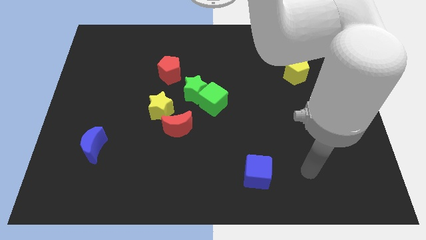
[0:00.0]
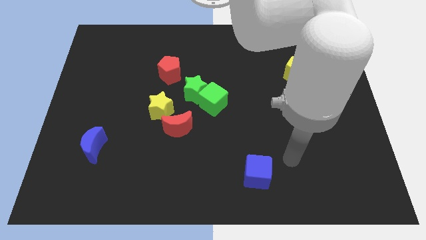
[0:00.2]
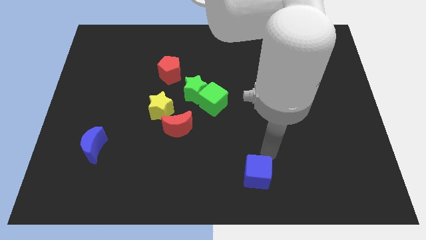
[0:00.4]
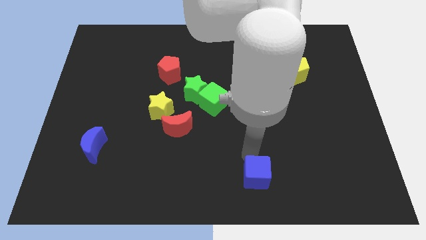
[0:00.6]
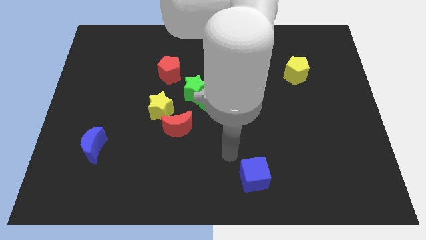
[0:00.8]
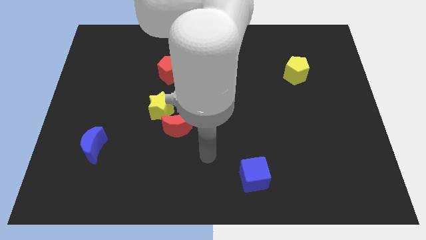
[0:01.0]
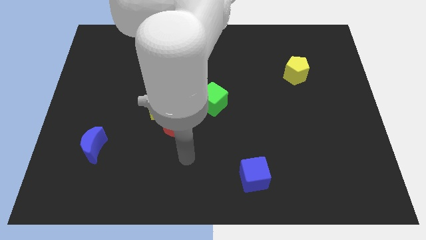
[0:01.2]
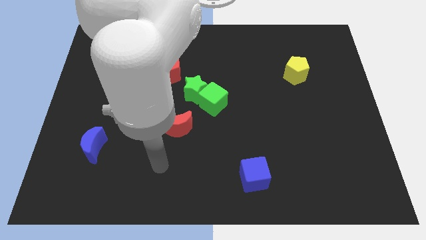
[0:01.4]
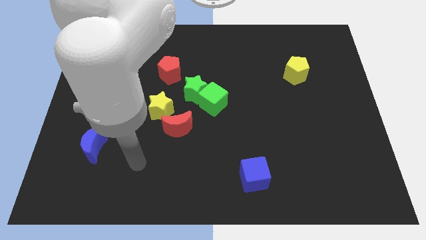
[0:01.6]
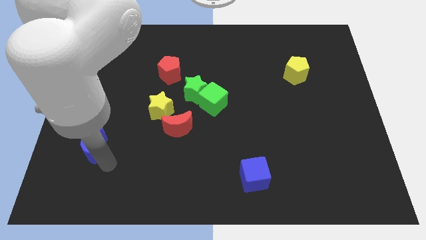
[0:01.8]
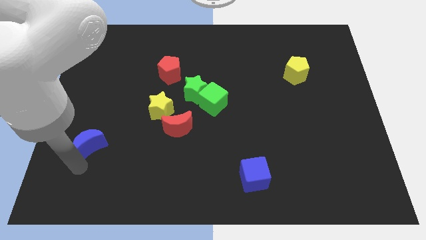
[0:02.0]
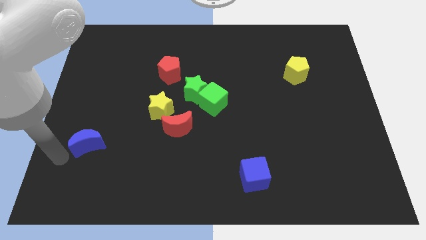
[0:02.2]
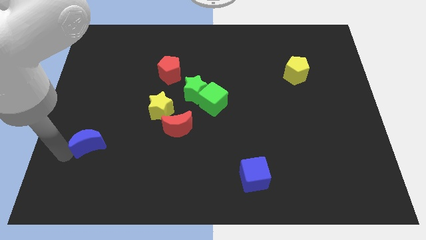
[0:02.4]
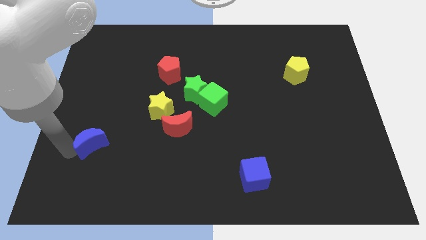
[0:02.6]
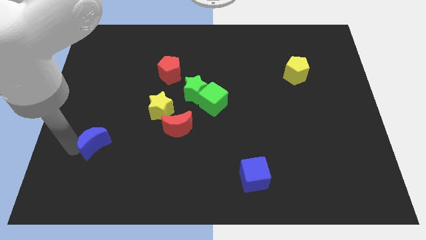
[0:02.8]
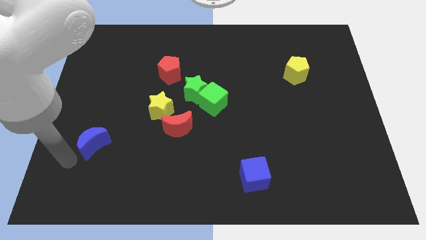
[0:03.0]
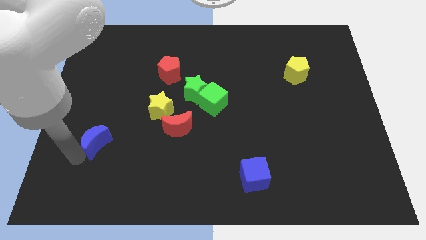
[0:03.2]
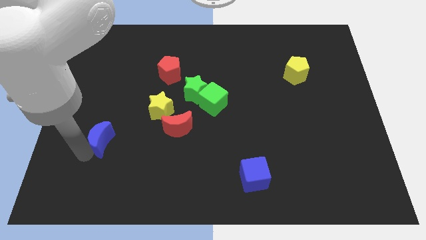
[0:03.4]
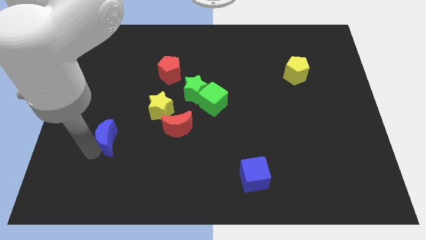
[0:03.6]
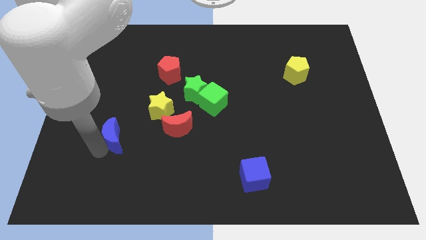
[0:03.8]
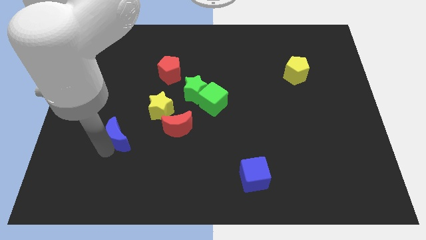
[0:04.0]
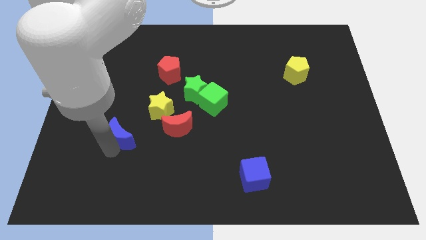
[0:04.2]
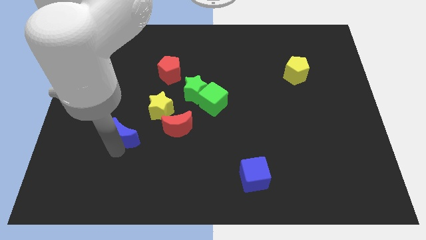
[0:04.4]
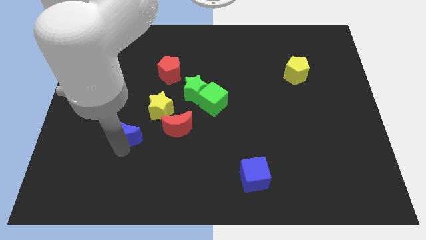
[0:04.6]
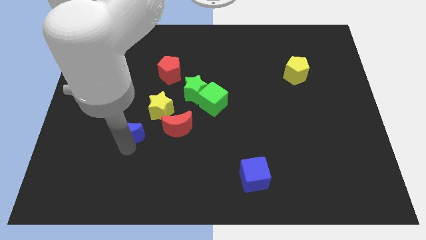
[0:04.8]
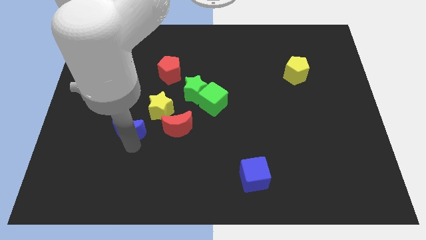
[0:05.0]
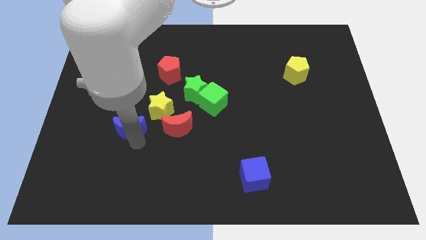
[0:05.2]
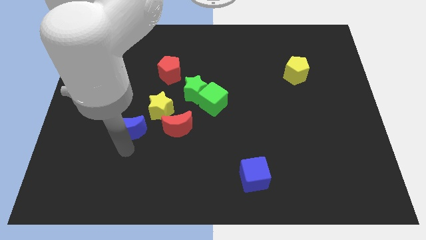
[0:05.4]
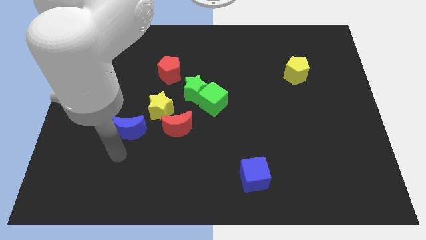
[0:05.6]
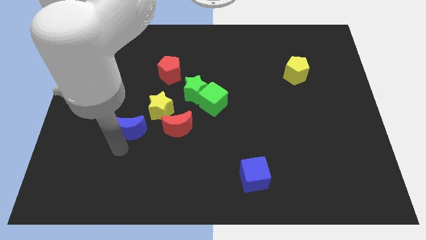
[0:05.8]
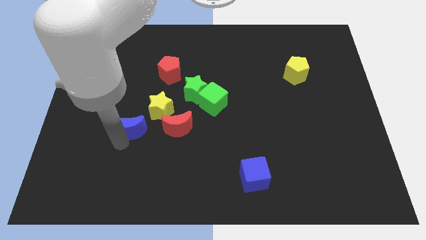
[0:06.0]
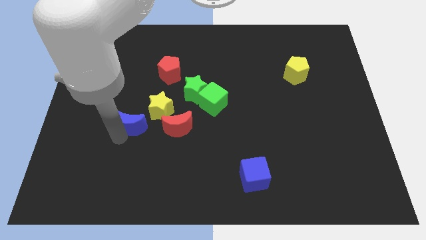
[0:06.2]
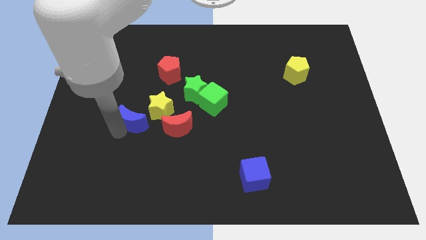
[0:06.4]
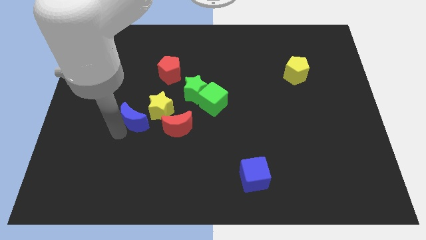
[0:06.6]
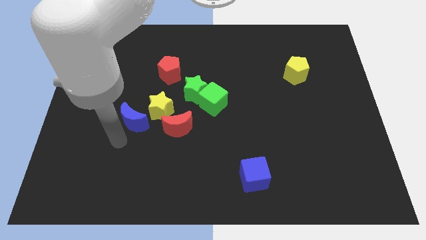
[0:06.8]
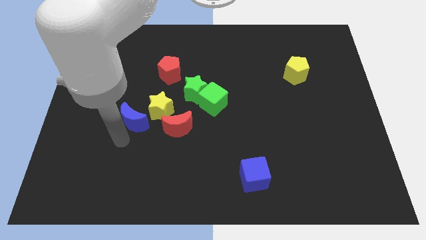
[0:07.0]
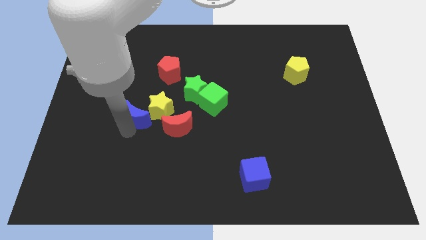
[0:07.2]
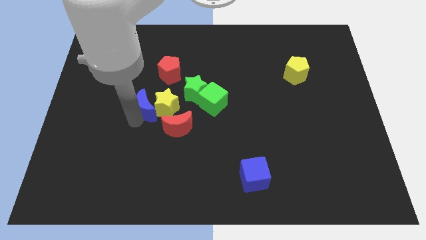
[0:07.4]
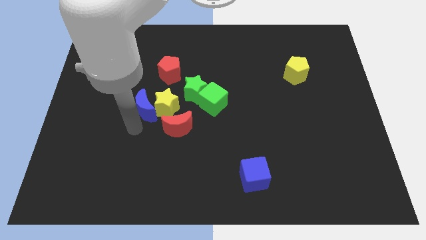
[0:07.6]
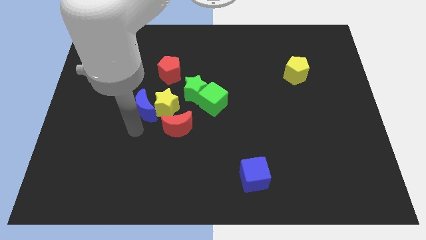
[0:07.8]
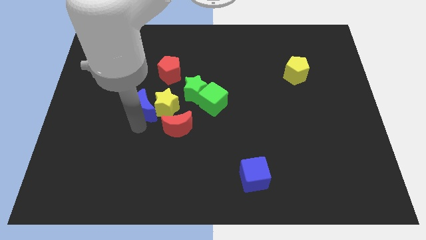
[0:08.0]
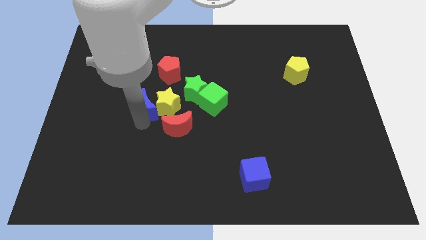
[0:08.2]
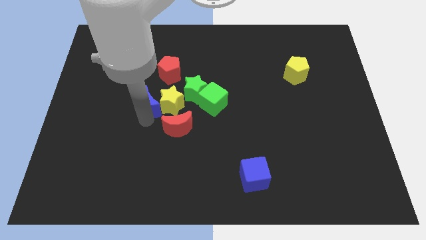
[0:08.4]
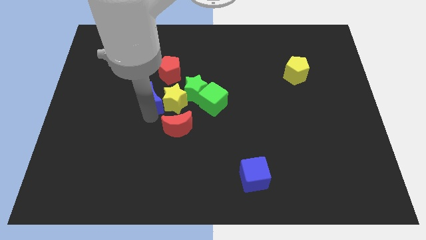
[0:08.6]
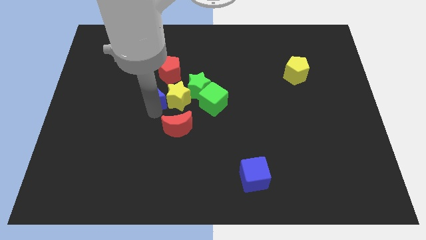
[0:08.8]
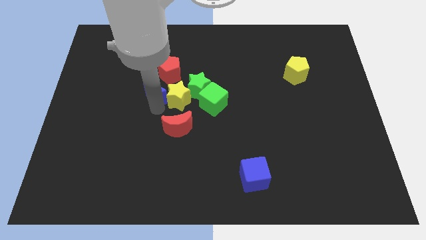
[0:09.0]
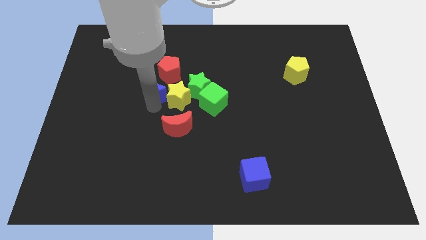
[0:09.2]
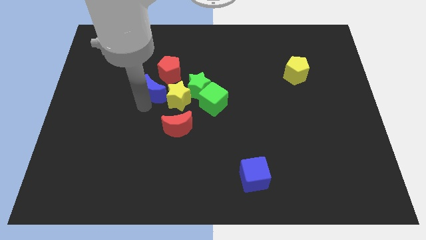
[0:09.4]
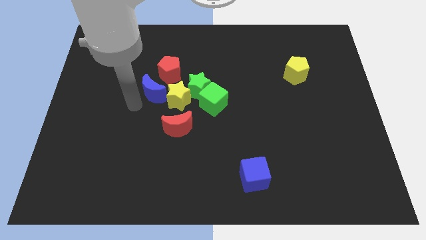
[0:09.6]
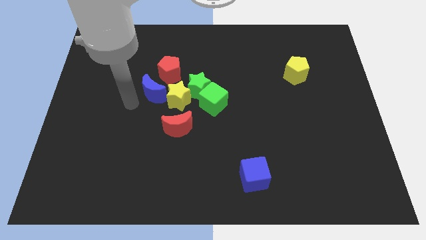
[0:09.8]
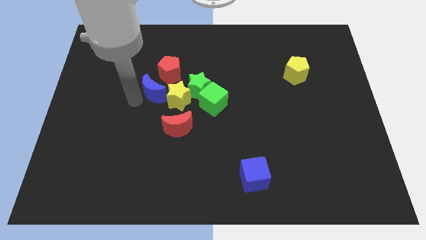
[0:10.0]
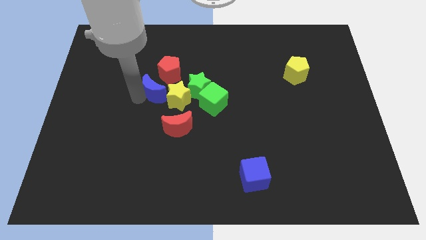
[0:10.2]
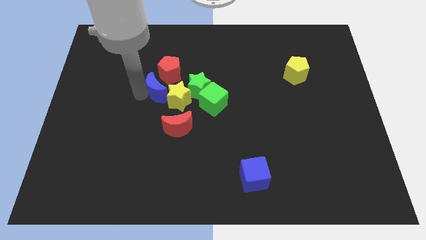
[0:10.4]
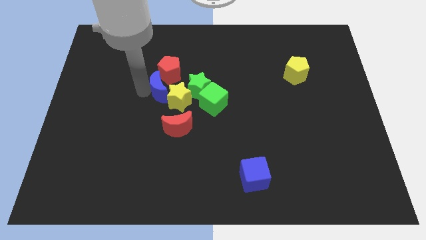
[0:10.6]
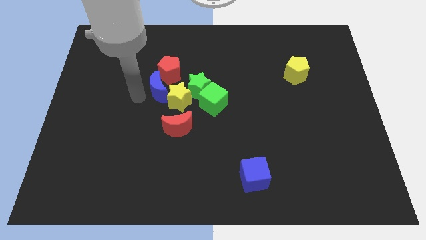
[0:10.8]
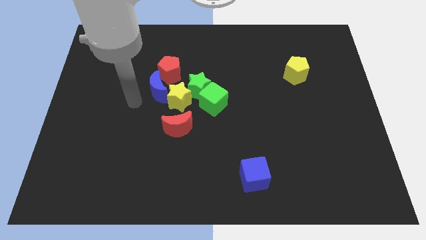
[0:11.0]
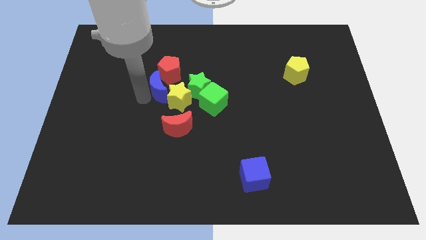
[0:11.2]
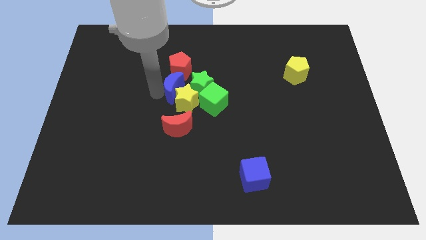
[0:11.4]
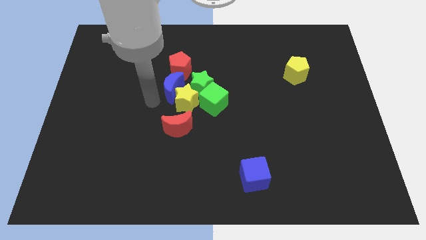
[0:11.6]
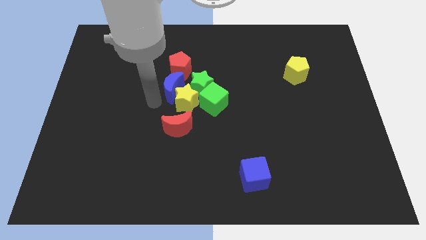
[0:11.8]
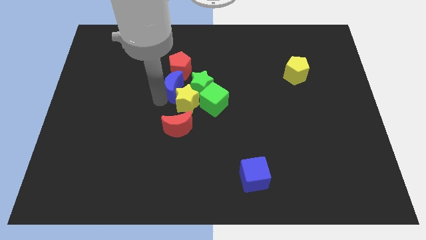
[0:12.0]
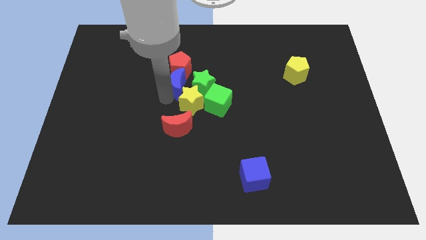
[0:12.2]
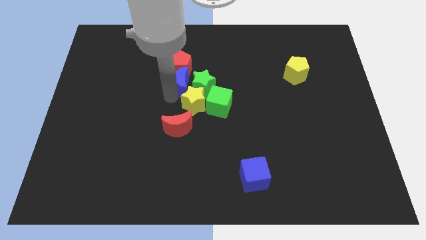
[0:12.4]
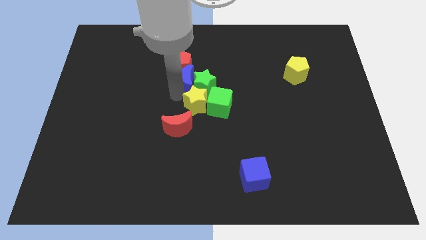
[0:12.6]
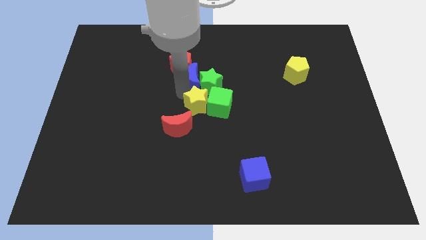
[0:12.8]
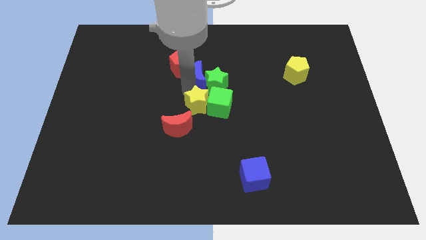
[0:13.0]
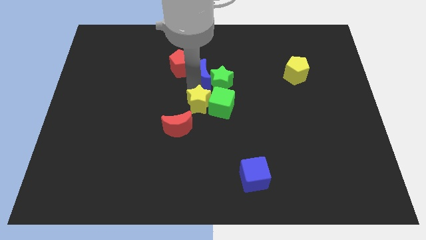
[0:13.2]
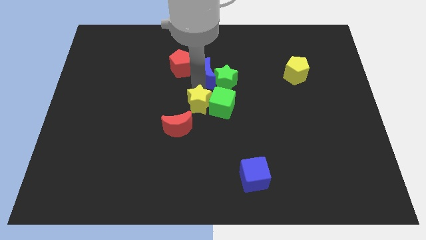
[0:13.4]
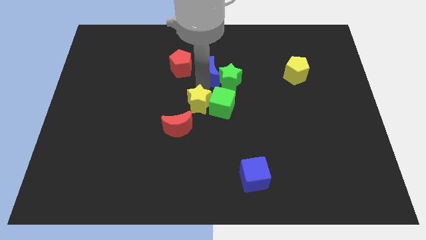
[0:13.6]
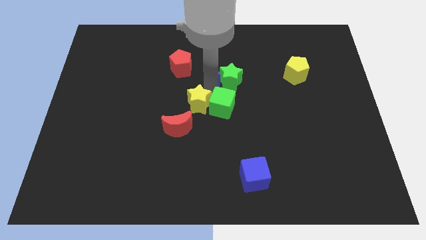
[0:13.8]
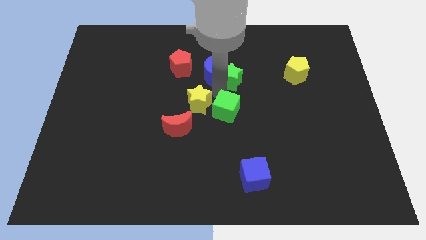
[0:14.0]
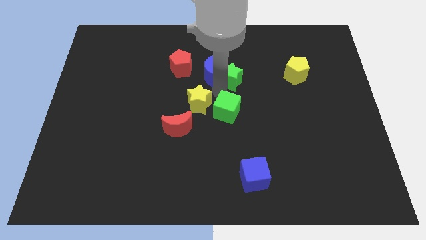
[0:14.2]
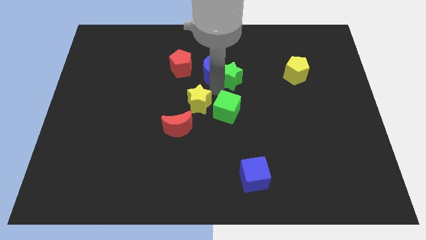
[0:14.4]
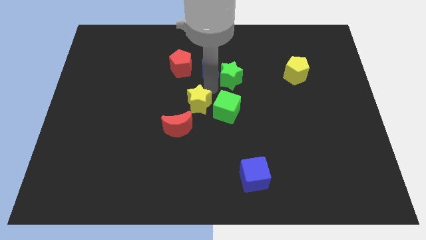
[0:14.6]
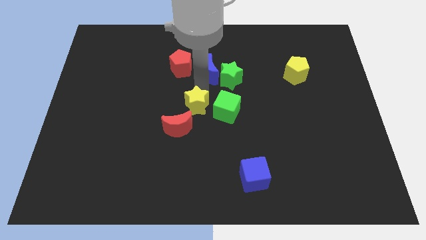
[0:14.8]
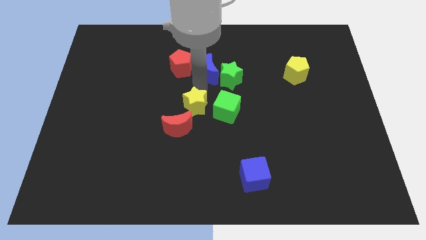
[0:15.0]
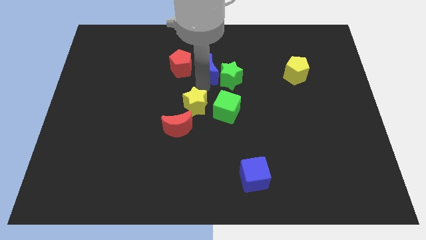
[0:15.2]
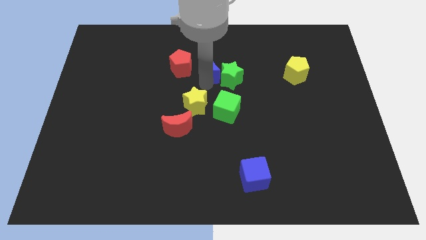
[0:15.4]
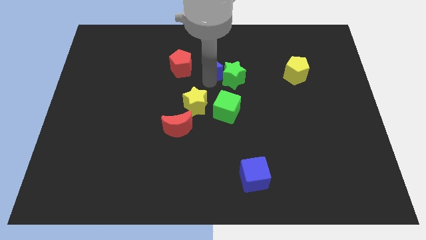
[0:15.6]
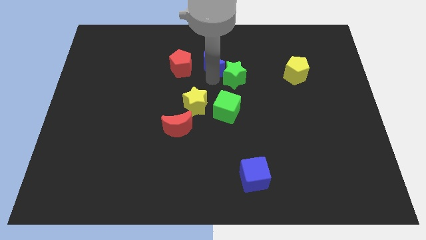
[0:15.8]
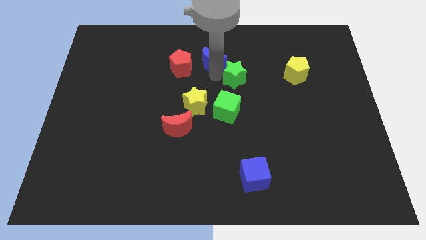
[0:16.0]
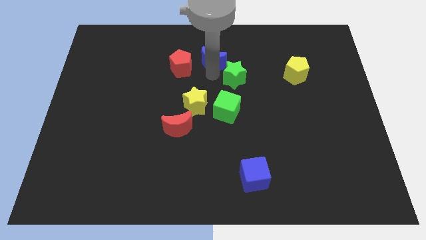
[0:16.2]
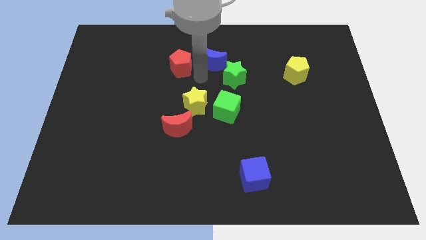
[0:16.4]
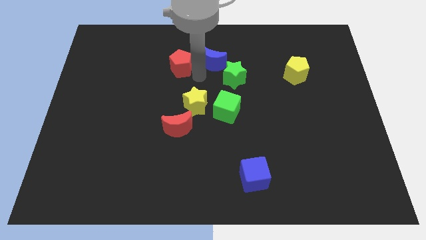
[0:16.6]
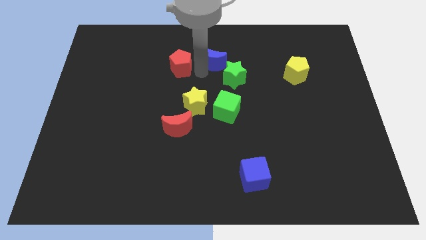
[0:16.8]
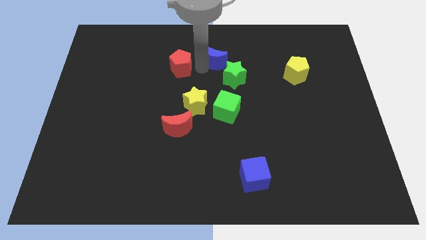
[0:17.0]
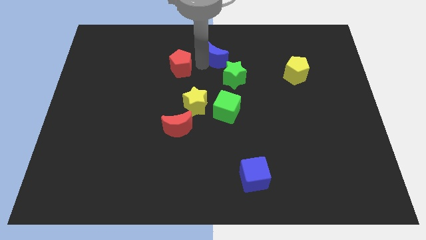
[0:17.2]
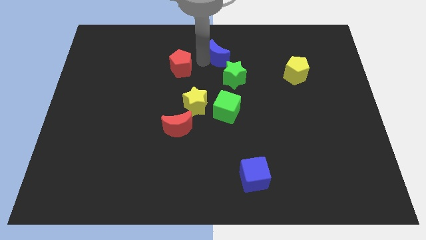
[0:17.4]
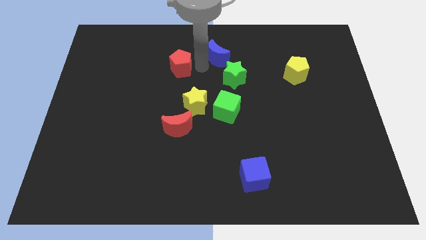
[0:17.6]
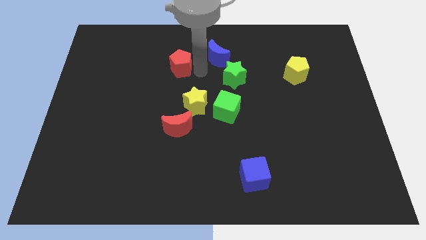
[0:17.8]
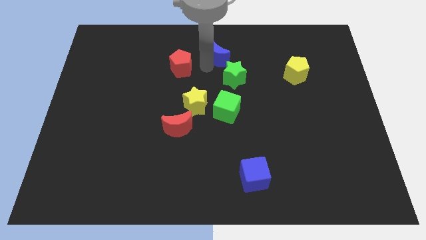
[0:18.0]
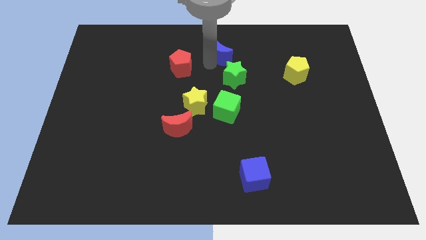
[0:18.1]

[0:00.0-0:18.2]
put the blue moon to the top
